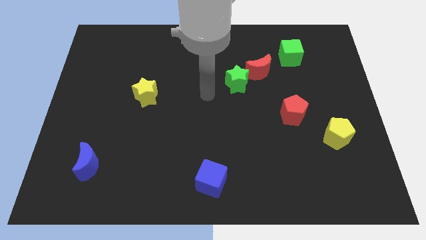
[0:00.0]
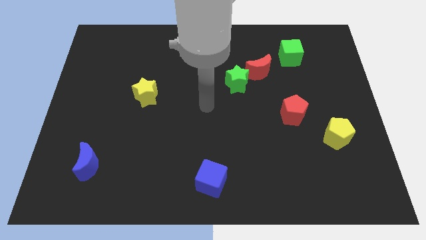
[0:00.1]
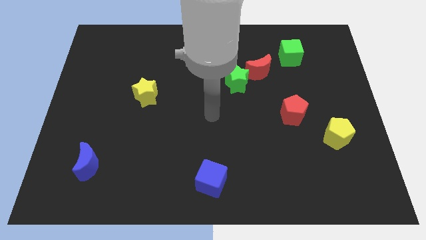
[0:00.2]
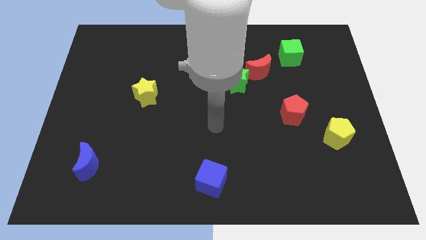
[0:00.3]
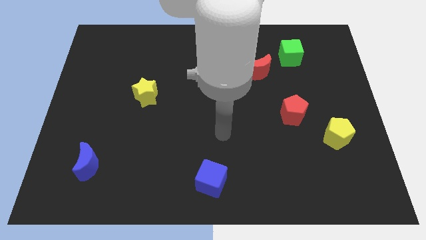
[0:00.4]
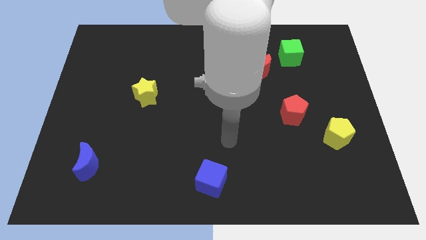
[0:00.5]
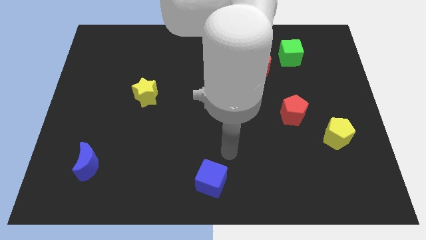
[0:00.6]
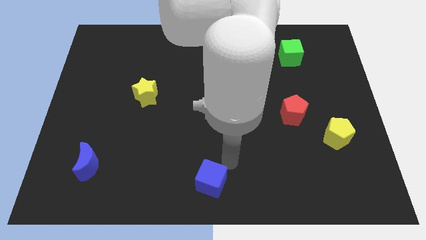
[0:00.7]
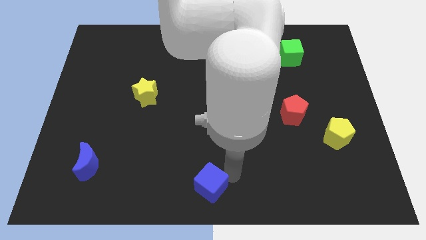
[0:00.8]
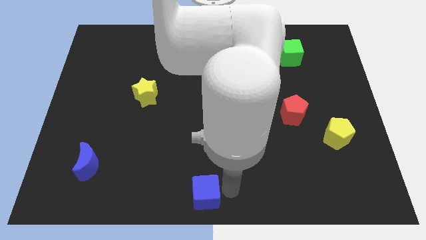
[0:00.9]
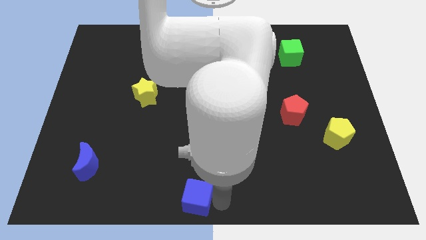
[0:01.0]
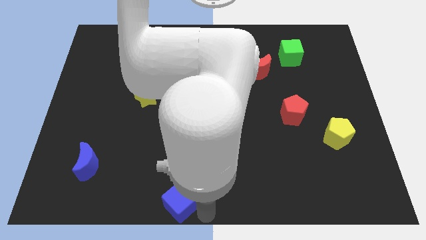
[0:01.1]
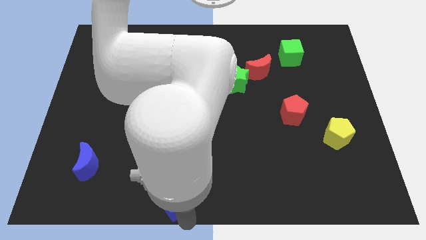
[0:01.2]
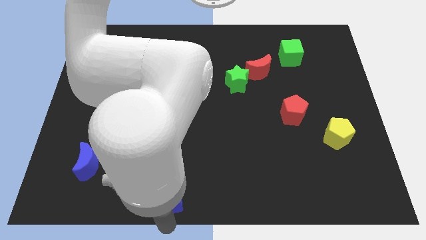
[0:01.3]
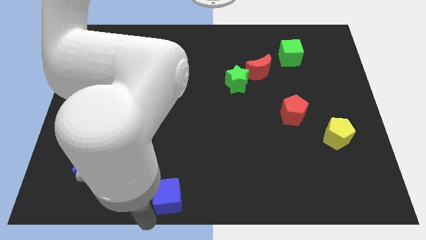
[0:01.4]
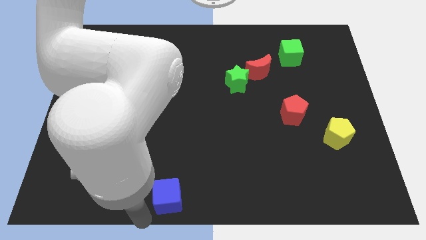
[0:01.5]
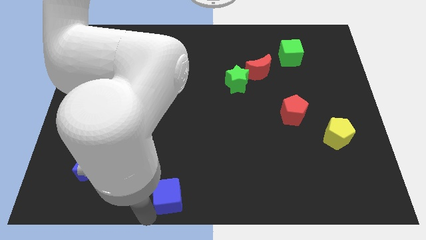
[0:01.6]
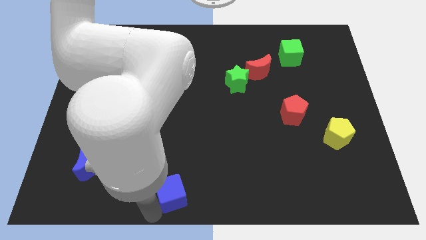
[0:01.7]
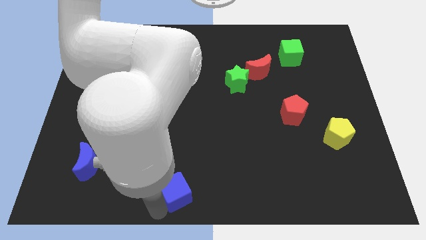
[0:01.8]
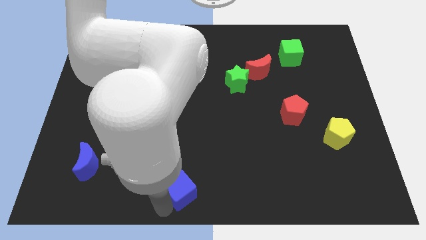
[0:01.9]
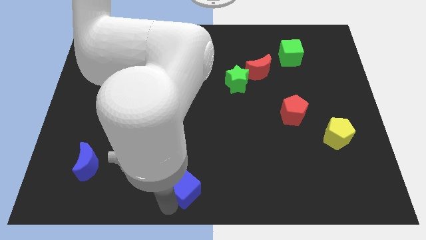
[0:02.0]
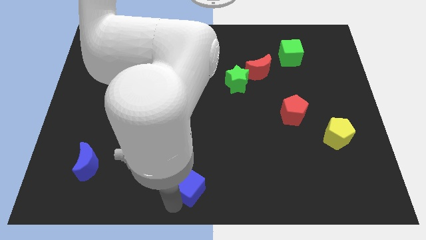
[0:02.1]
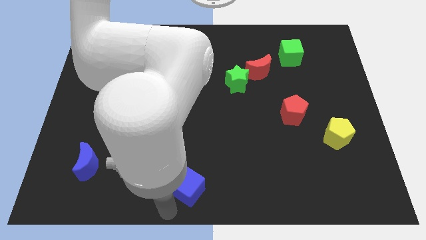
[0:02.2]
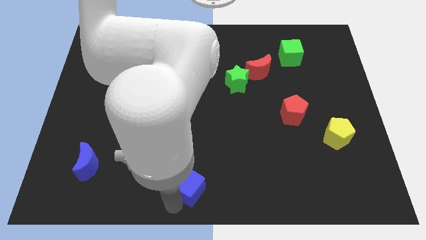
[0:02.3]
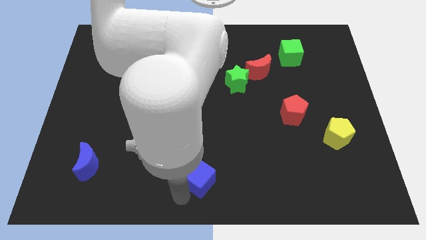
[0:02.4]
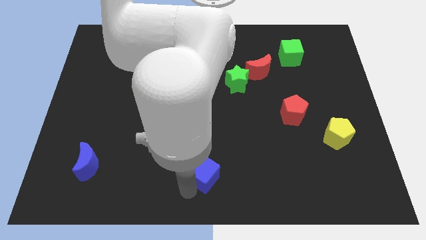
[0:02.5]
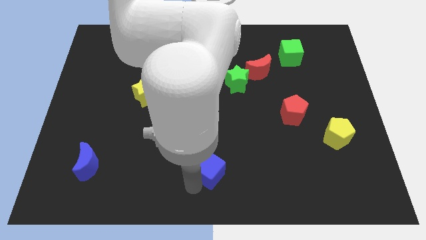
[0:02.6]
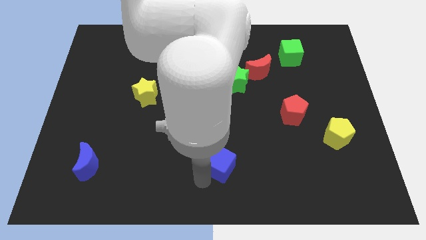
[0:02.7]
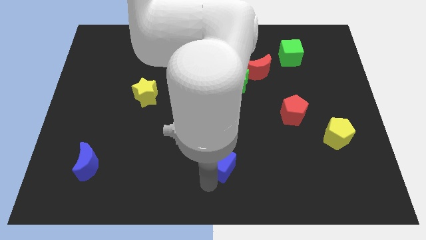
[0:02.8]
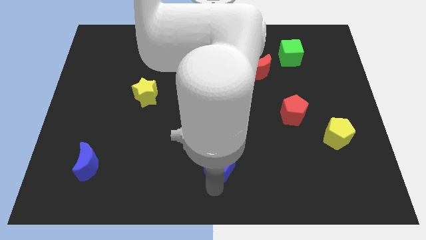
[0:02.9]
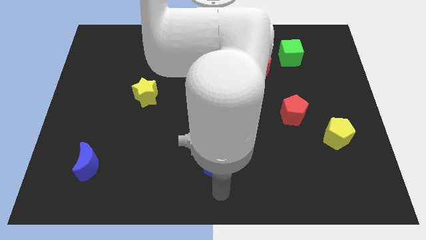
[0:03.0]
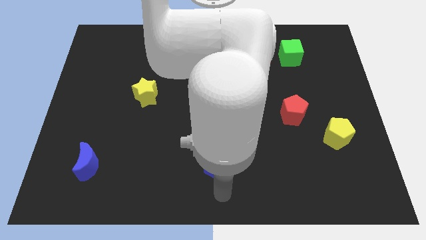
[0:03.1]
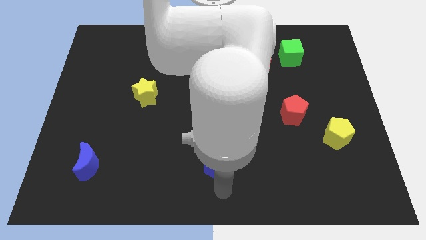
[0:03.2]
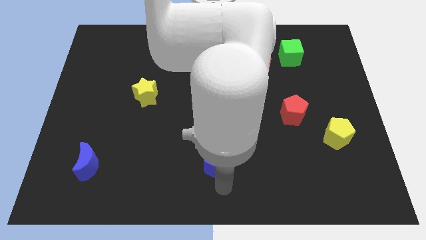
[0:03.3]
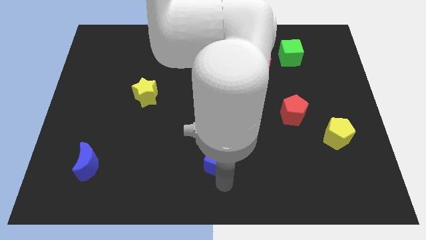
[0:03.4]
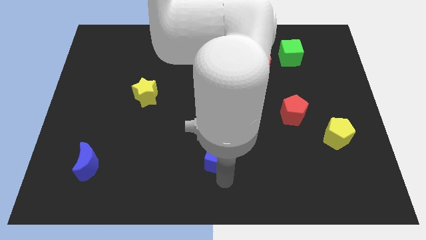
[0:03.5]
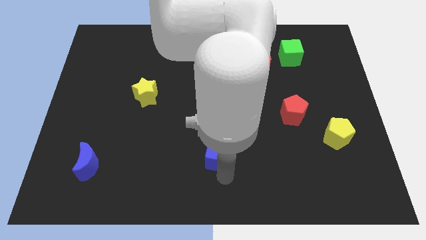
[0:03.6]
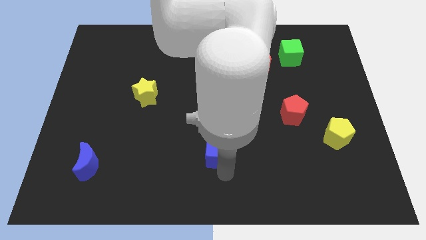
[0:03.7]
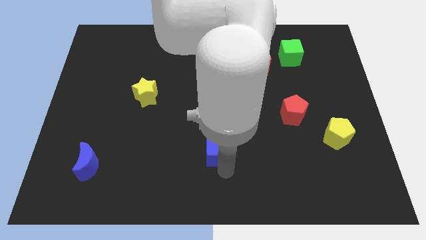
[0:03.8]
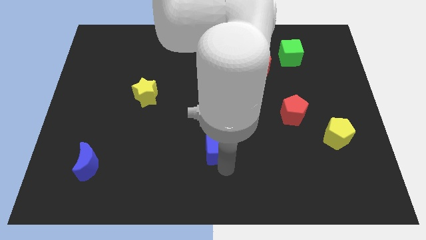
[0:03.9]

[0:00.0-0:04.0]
move the blue cube upwards a little

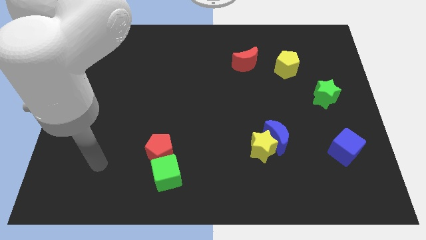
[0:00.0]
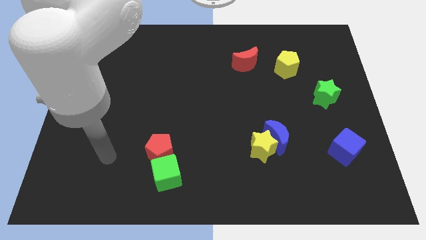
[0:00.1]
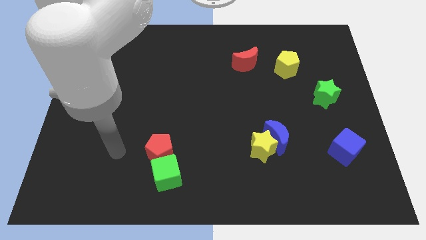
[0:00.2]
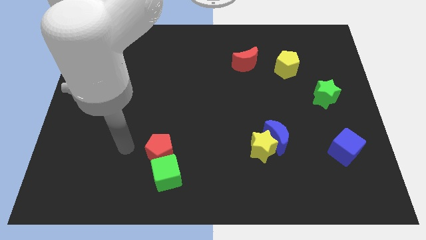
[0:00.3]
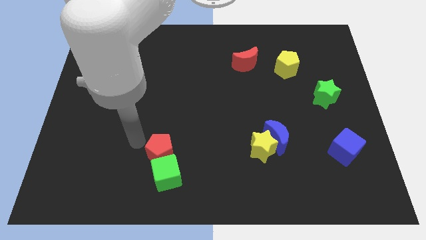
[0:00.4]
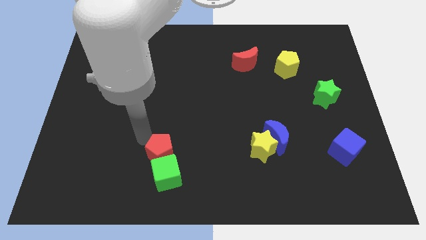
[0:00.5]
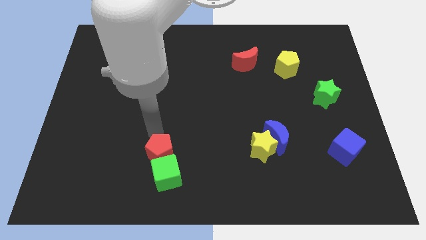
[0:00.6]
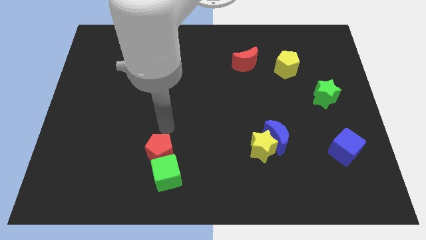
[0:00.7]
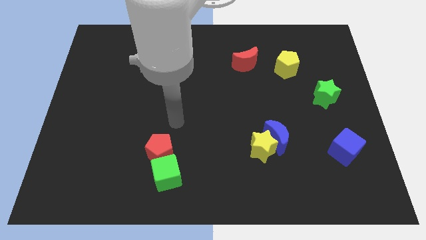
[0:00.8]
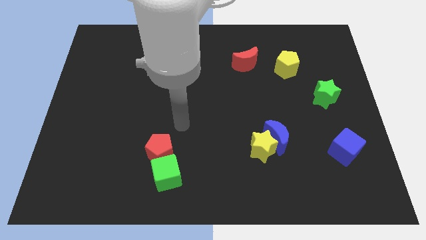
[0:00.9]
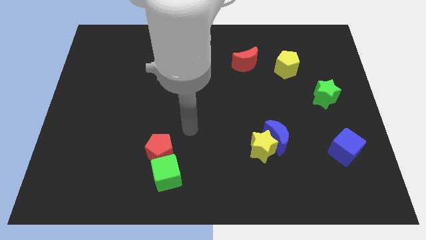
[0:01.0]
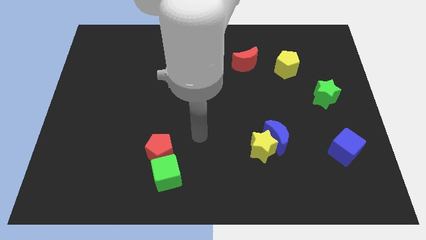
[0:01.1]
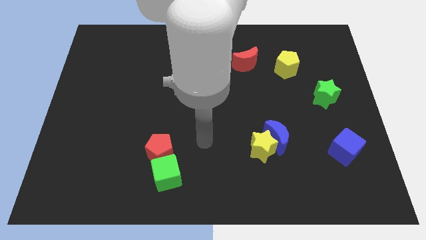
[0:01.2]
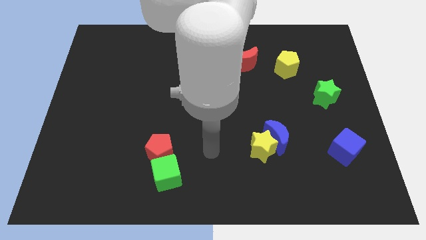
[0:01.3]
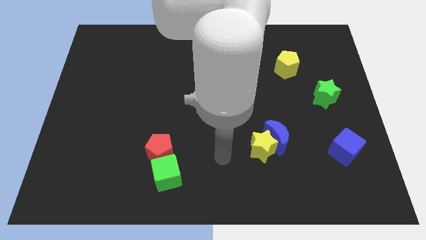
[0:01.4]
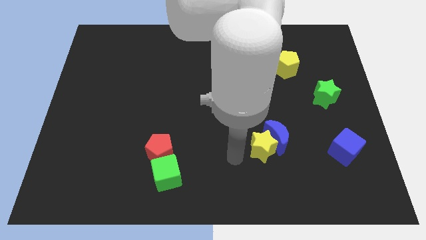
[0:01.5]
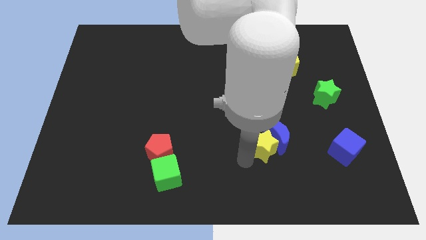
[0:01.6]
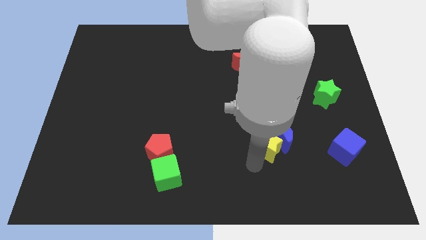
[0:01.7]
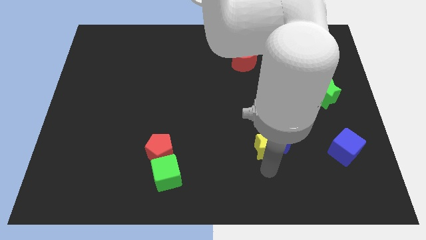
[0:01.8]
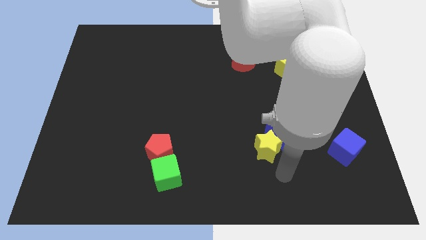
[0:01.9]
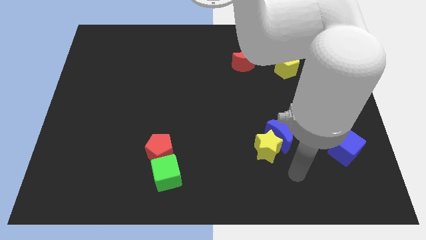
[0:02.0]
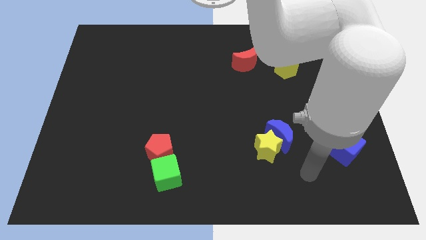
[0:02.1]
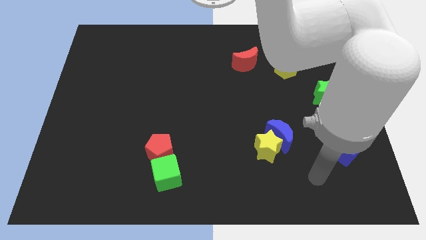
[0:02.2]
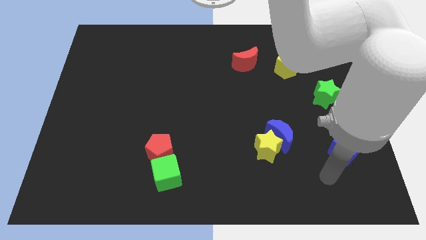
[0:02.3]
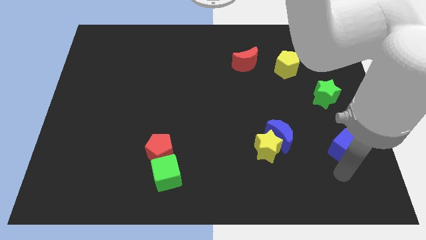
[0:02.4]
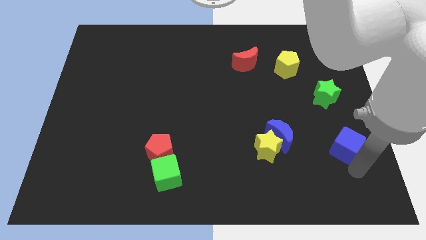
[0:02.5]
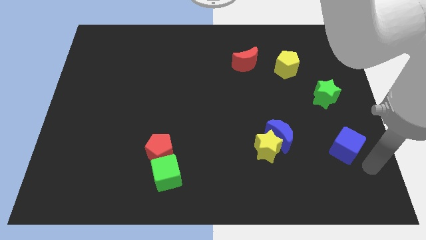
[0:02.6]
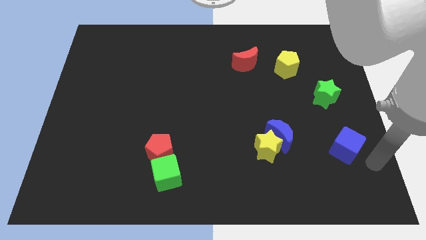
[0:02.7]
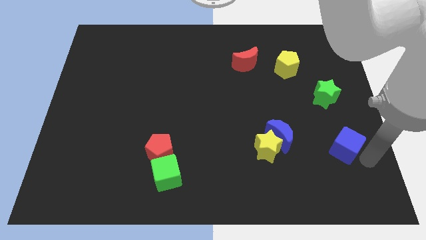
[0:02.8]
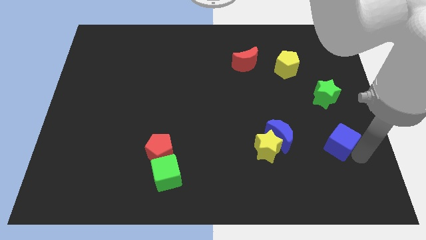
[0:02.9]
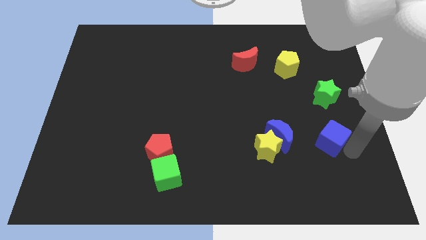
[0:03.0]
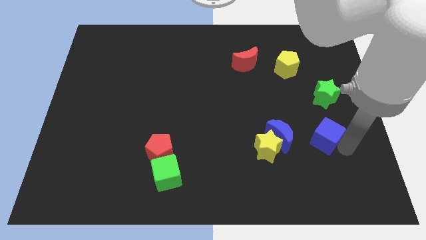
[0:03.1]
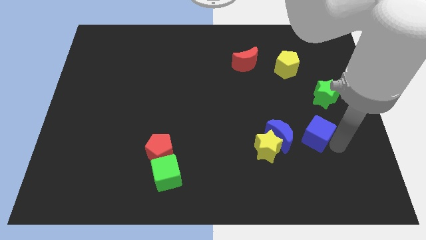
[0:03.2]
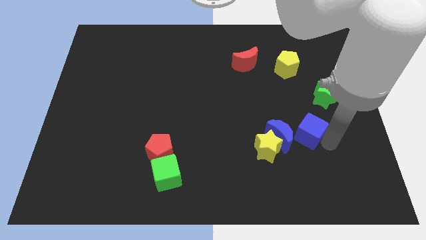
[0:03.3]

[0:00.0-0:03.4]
slightly move the blue cube up and left

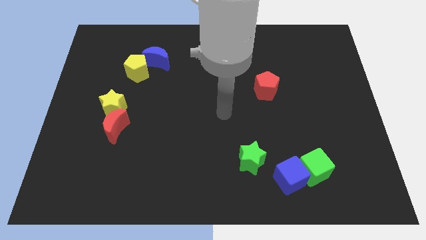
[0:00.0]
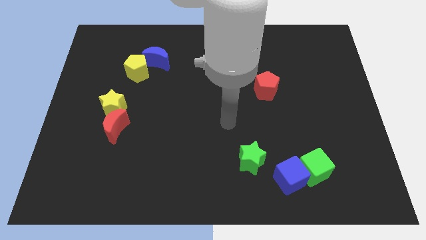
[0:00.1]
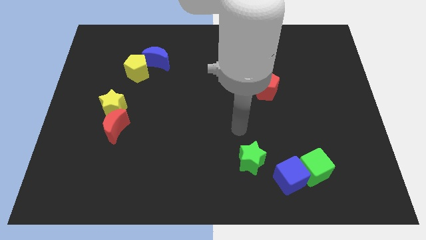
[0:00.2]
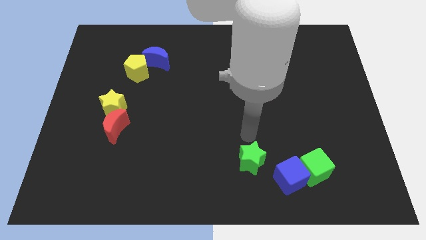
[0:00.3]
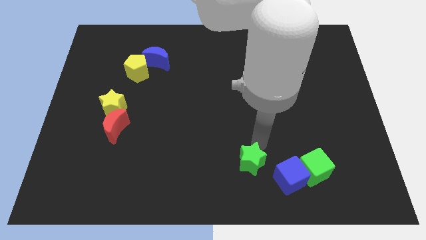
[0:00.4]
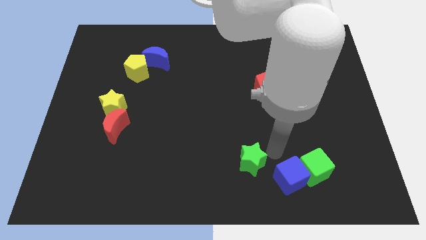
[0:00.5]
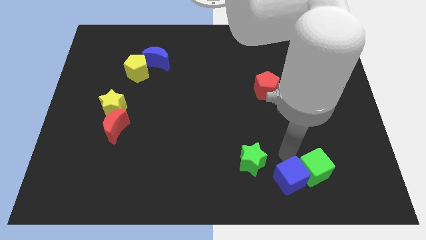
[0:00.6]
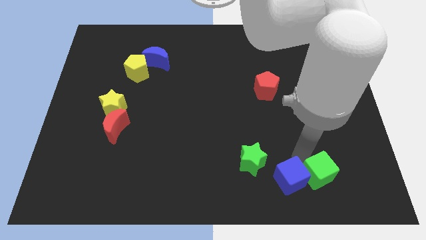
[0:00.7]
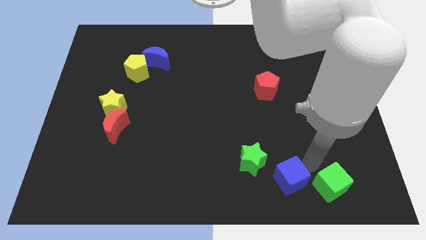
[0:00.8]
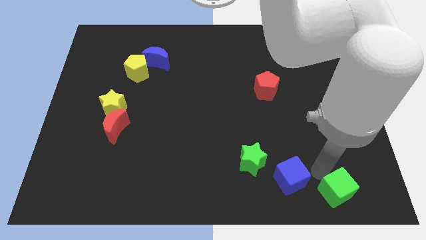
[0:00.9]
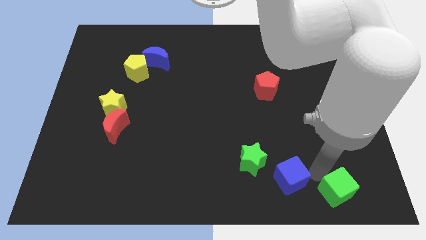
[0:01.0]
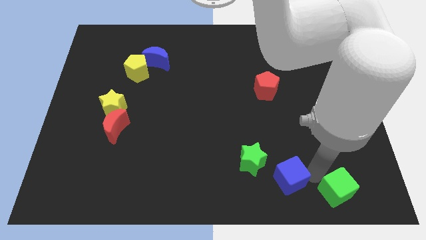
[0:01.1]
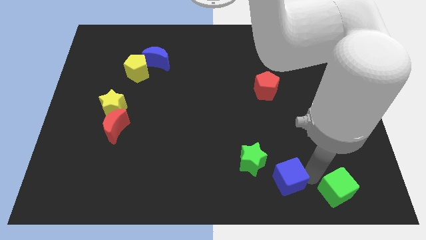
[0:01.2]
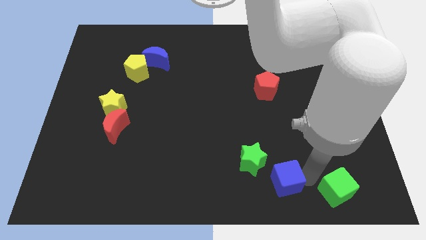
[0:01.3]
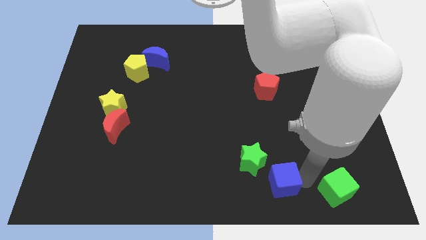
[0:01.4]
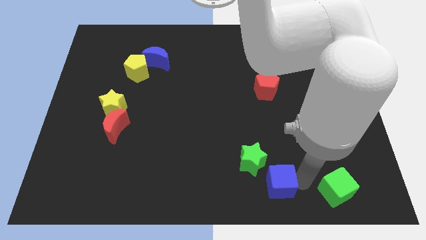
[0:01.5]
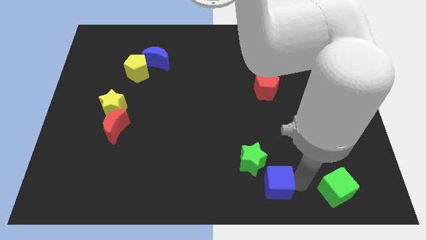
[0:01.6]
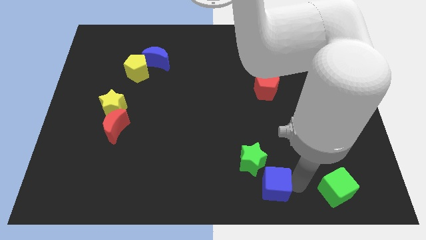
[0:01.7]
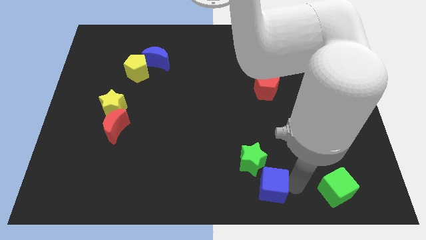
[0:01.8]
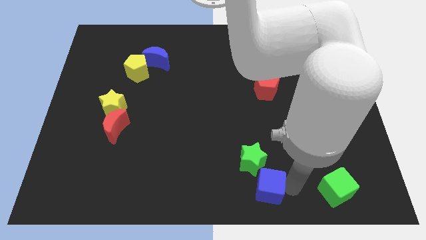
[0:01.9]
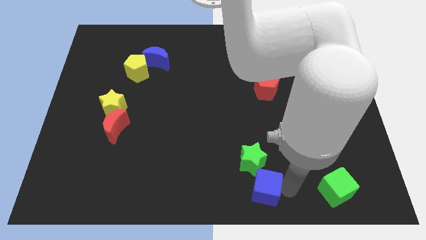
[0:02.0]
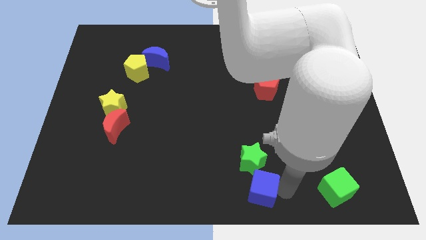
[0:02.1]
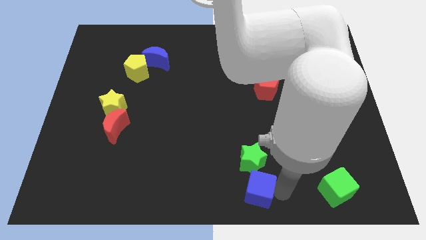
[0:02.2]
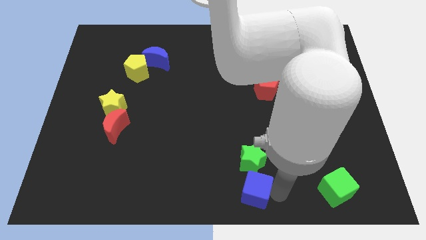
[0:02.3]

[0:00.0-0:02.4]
move the blue cube a little to the left
